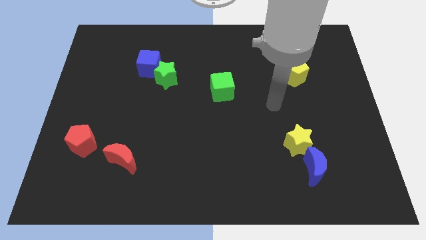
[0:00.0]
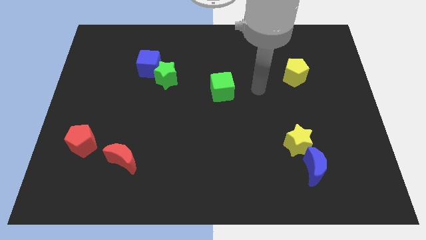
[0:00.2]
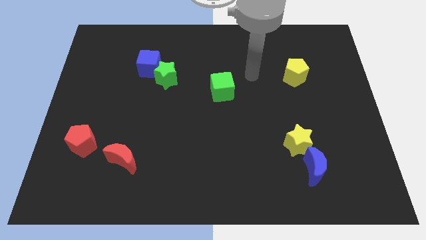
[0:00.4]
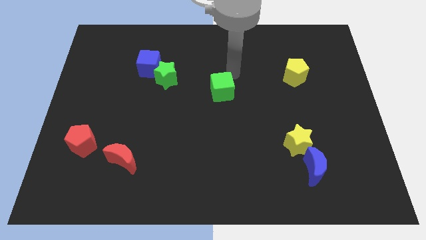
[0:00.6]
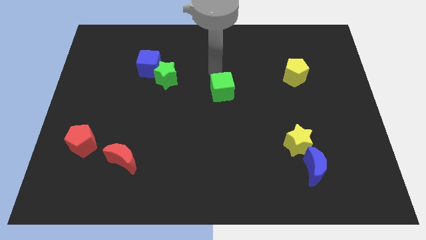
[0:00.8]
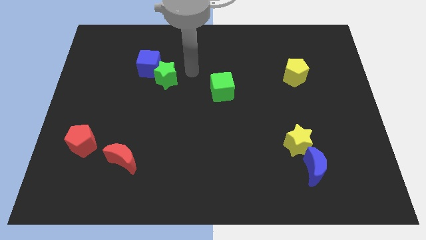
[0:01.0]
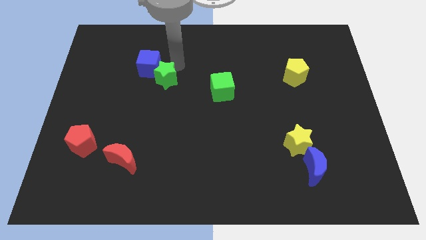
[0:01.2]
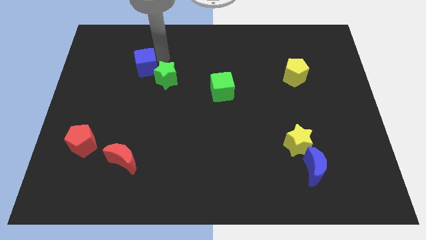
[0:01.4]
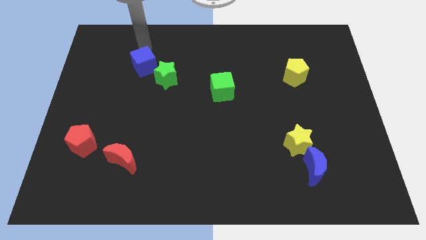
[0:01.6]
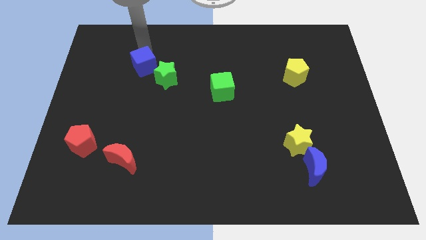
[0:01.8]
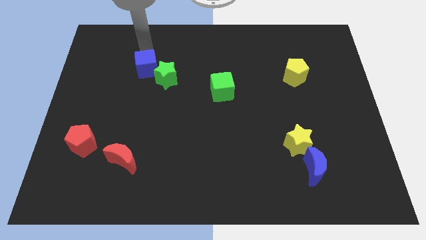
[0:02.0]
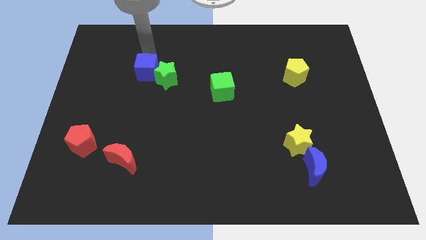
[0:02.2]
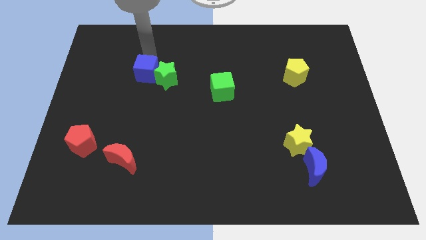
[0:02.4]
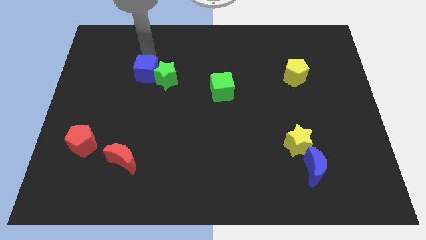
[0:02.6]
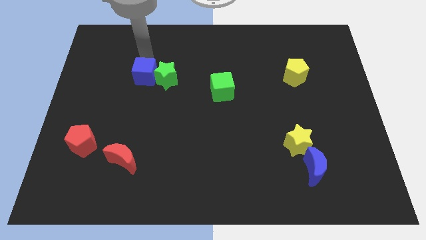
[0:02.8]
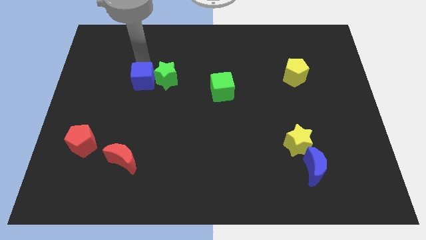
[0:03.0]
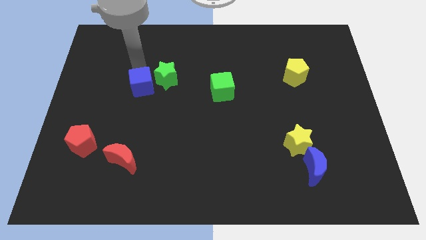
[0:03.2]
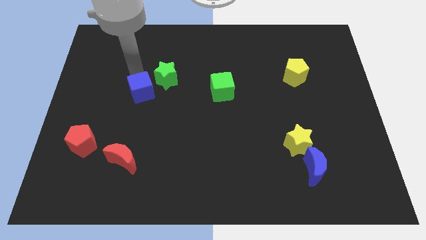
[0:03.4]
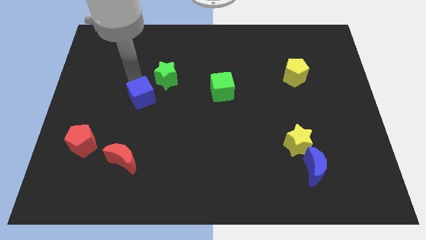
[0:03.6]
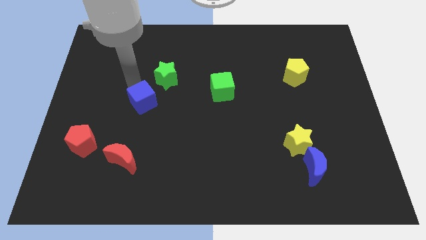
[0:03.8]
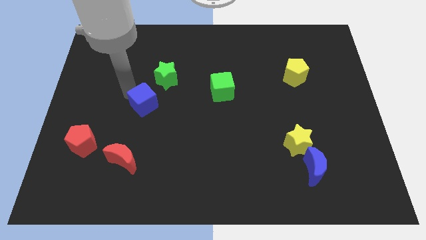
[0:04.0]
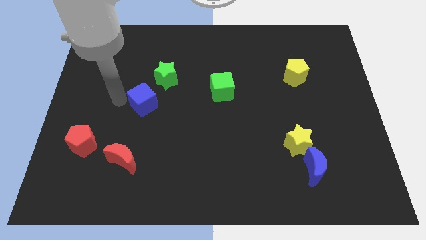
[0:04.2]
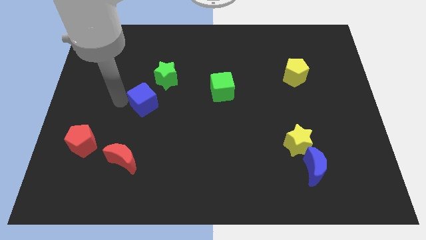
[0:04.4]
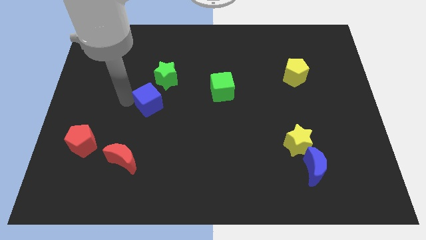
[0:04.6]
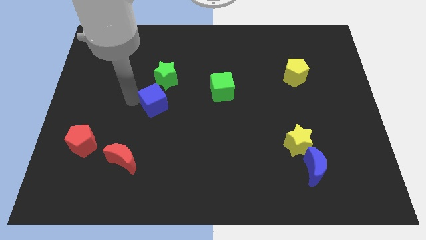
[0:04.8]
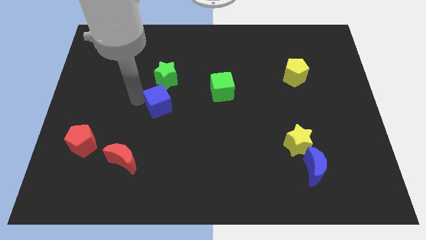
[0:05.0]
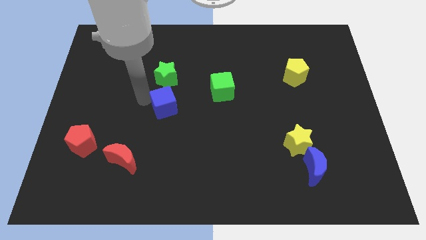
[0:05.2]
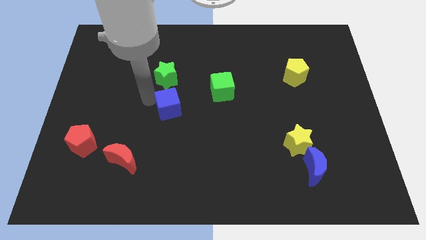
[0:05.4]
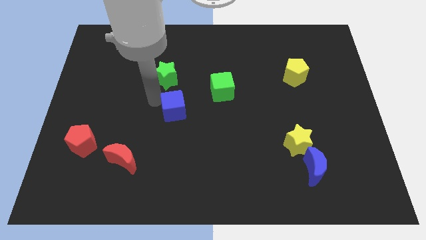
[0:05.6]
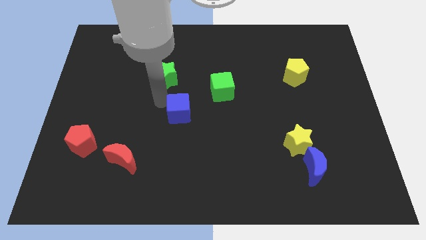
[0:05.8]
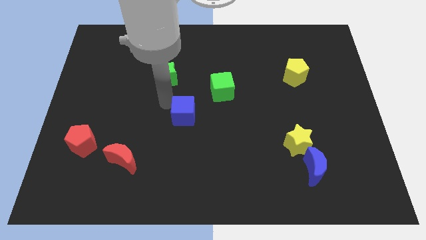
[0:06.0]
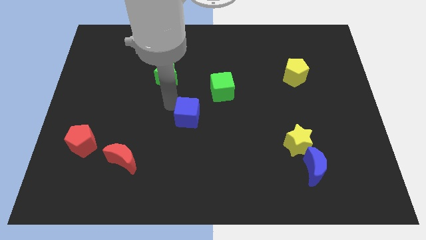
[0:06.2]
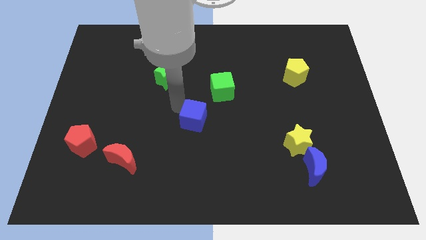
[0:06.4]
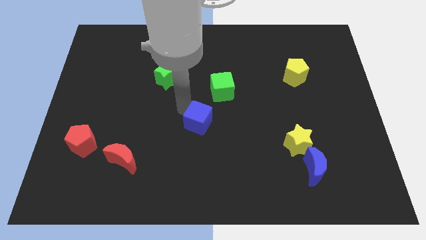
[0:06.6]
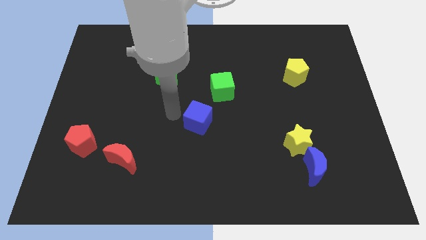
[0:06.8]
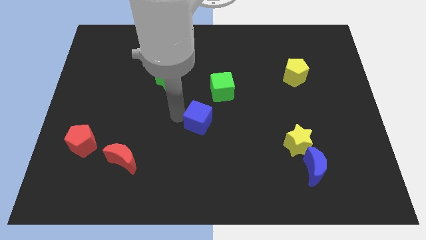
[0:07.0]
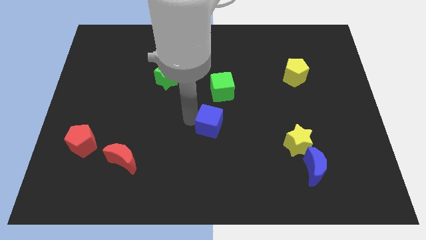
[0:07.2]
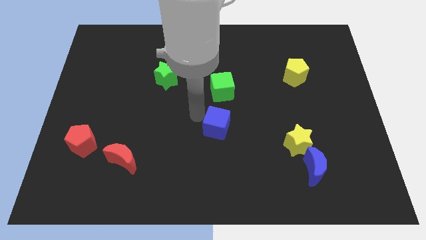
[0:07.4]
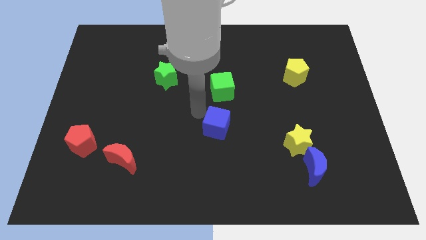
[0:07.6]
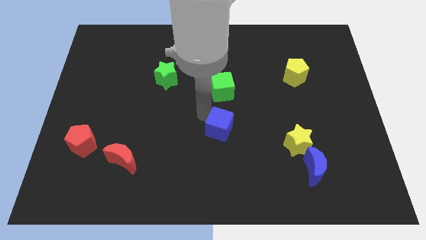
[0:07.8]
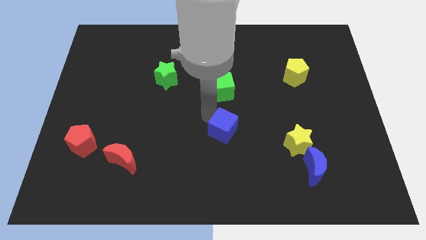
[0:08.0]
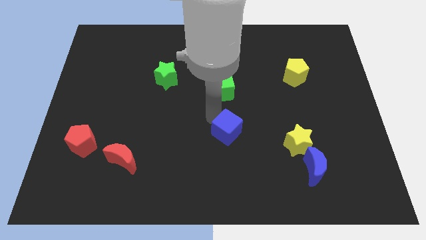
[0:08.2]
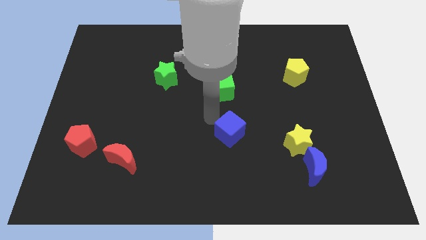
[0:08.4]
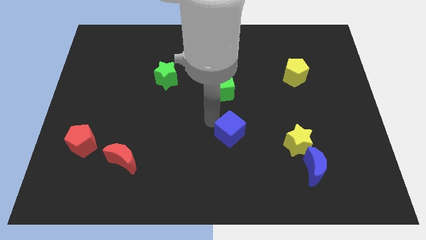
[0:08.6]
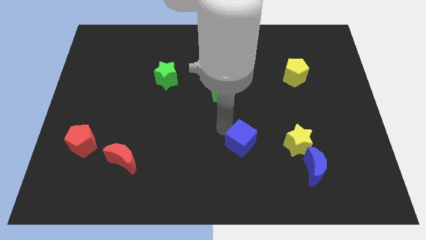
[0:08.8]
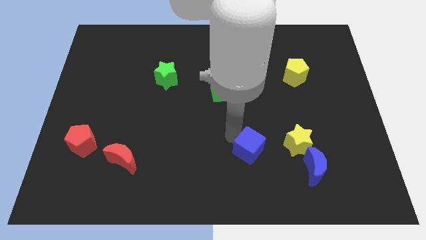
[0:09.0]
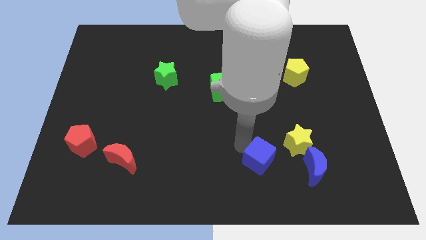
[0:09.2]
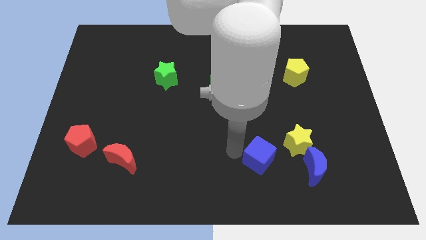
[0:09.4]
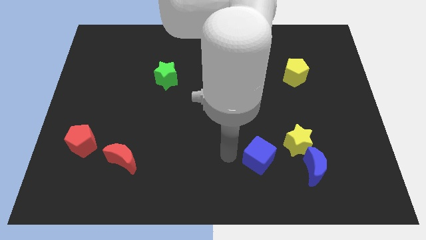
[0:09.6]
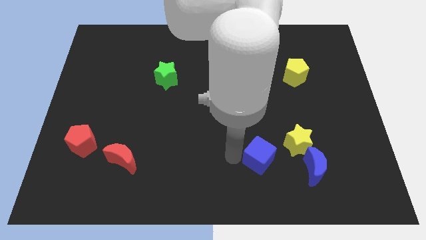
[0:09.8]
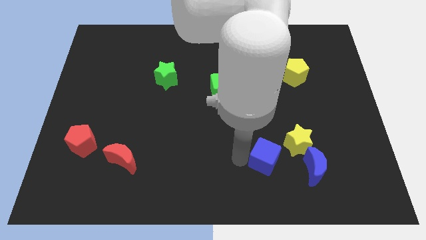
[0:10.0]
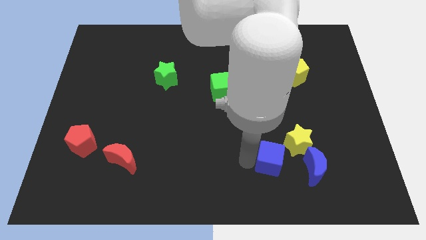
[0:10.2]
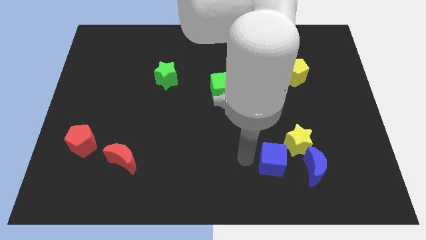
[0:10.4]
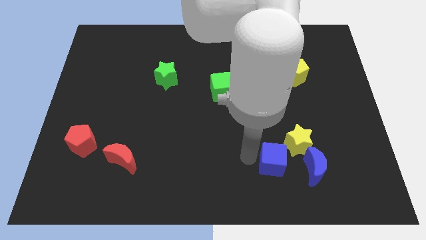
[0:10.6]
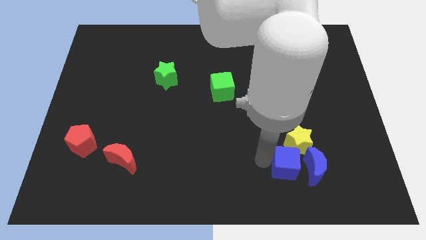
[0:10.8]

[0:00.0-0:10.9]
put the blue cube close to the blue moon

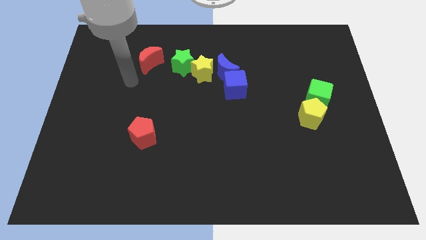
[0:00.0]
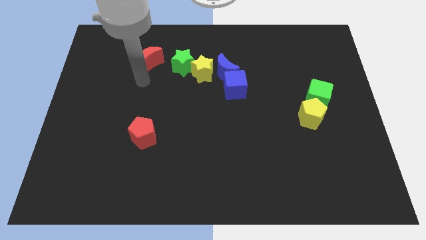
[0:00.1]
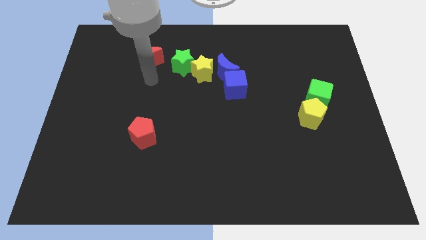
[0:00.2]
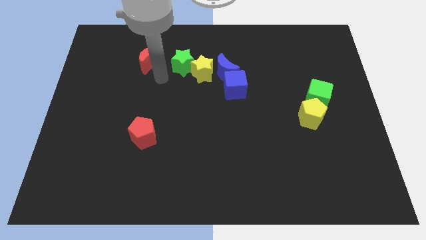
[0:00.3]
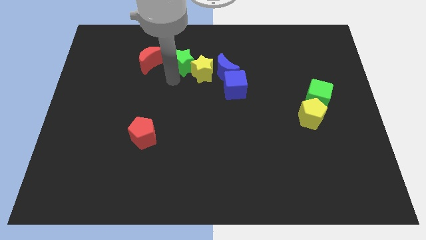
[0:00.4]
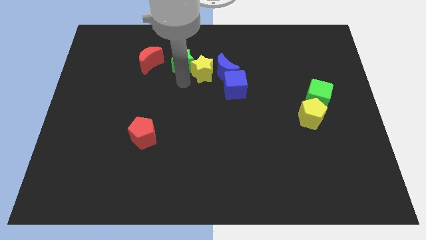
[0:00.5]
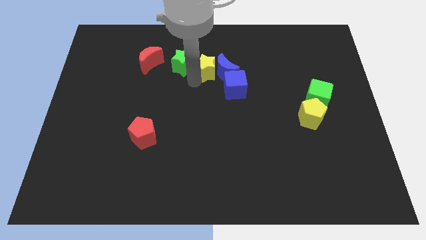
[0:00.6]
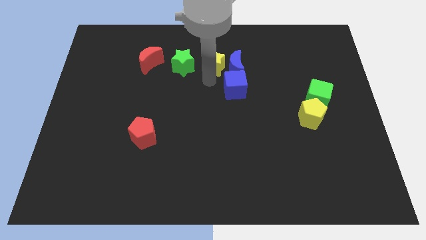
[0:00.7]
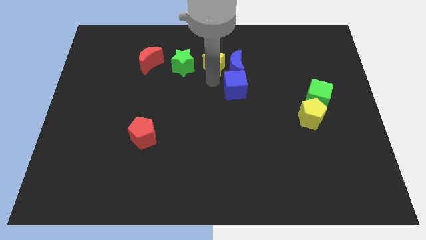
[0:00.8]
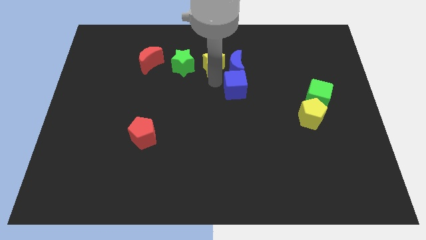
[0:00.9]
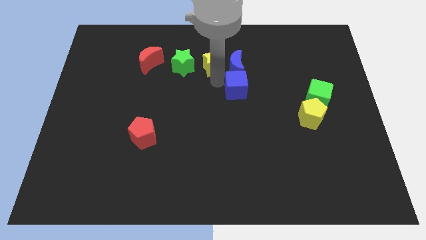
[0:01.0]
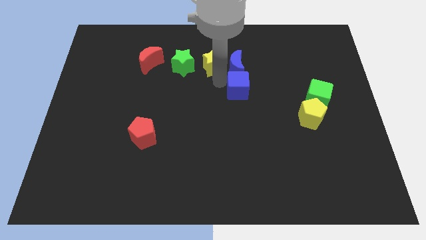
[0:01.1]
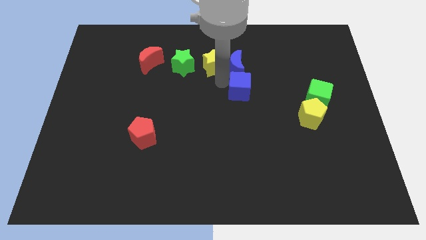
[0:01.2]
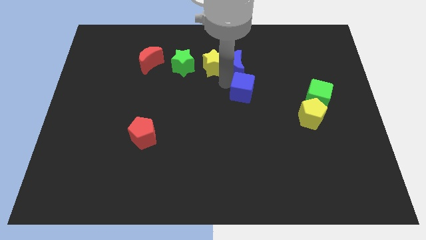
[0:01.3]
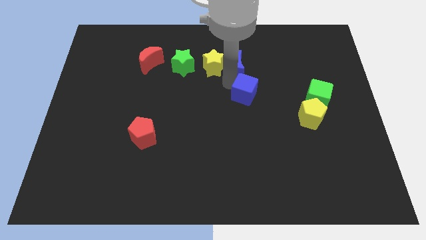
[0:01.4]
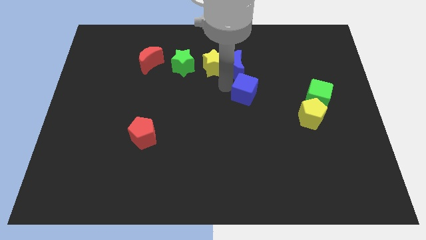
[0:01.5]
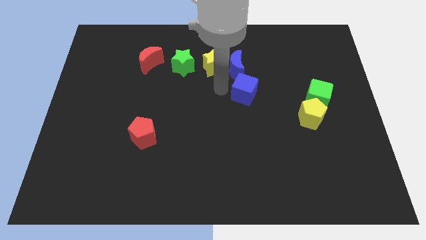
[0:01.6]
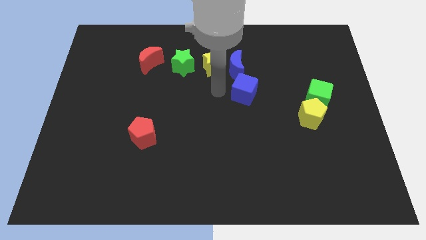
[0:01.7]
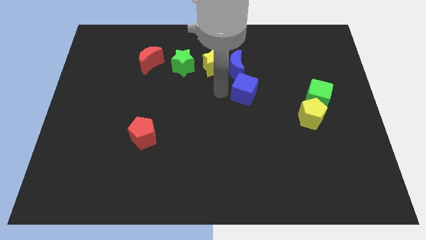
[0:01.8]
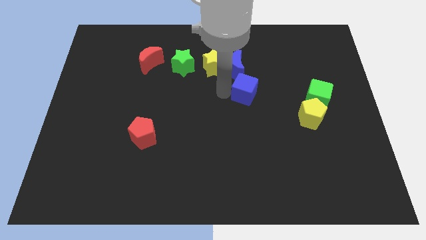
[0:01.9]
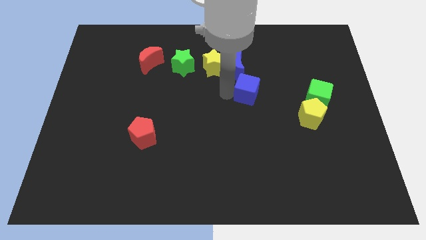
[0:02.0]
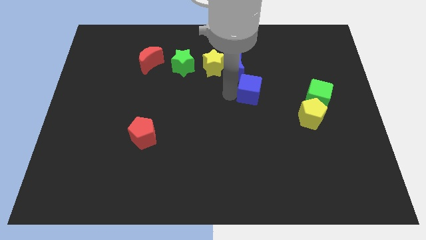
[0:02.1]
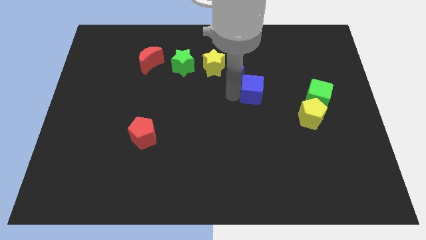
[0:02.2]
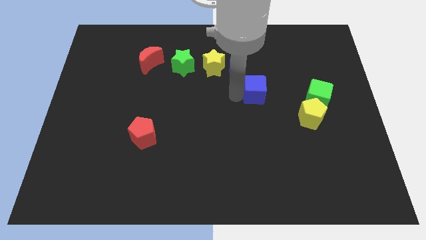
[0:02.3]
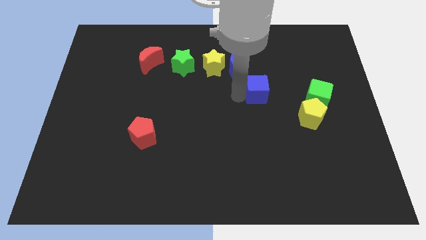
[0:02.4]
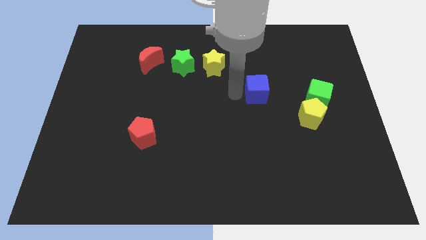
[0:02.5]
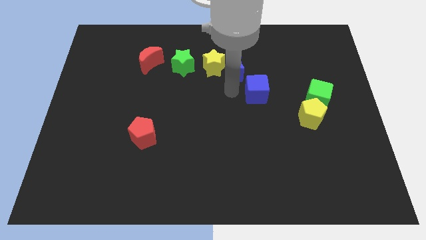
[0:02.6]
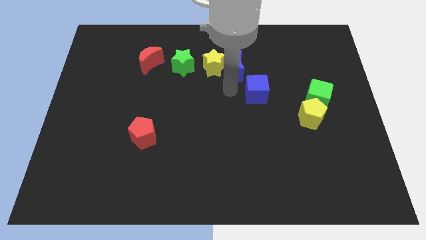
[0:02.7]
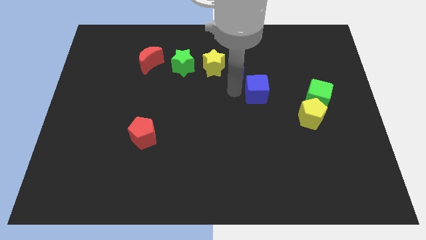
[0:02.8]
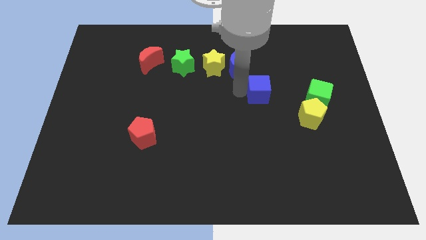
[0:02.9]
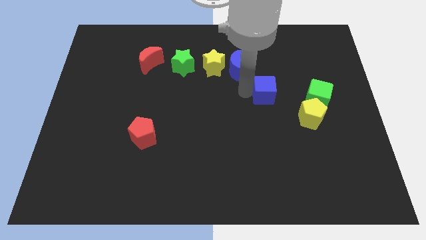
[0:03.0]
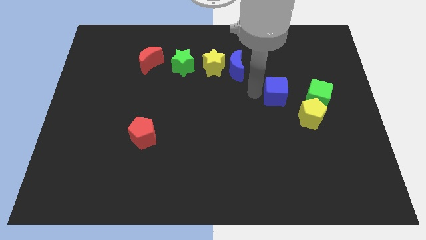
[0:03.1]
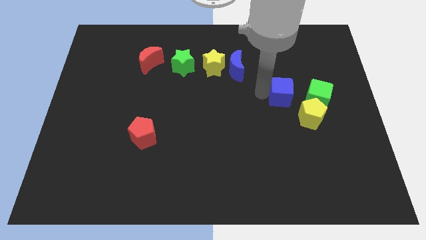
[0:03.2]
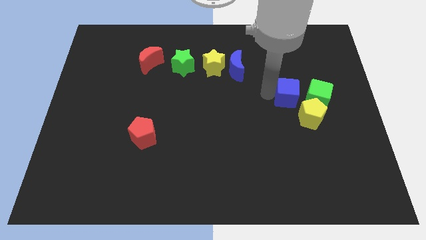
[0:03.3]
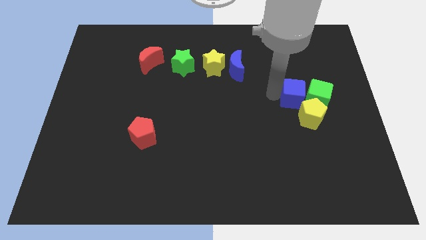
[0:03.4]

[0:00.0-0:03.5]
push the blue cube close to the green cube
